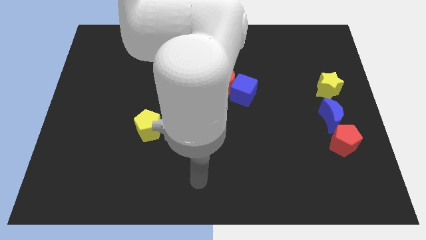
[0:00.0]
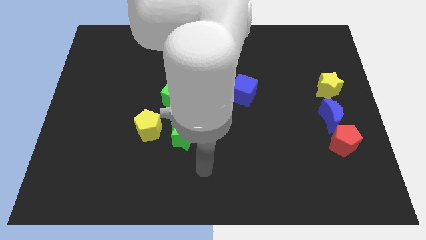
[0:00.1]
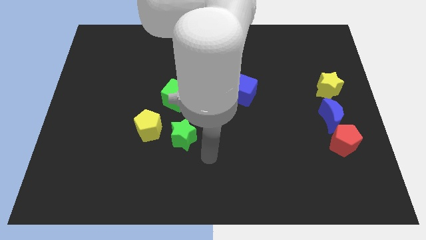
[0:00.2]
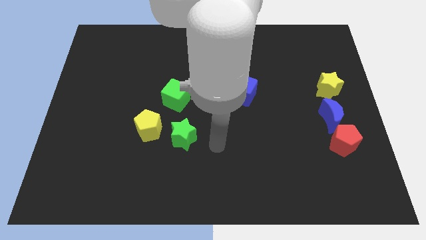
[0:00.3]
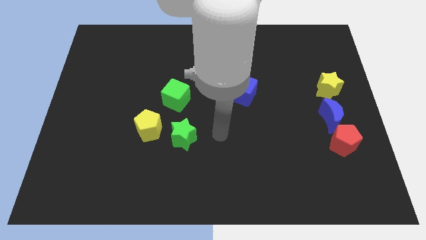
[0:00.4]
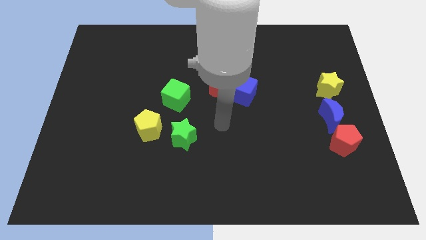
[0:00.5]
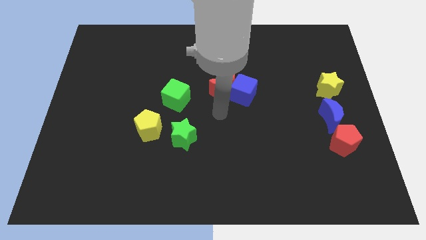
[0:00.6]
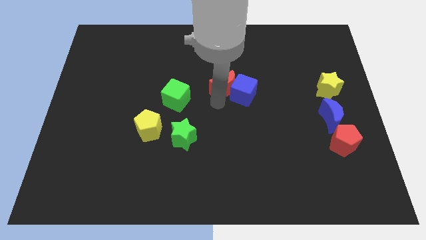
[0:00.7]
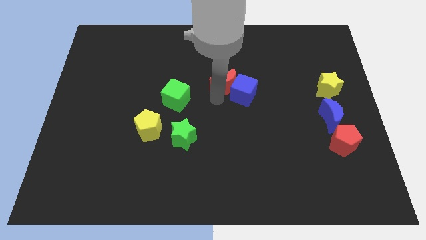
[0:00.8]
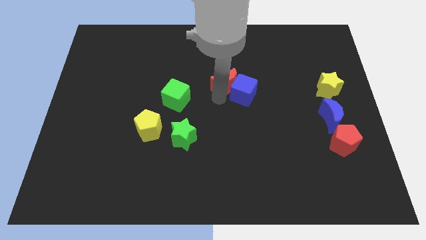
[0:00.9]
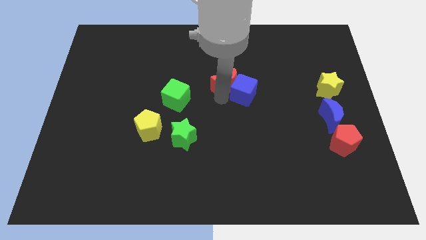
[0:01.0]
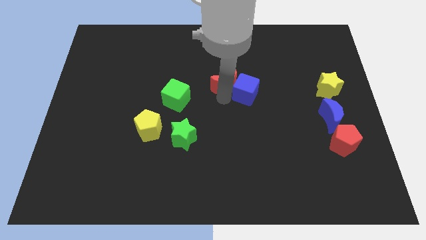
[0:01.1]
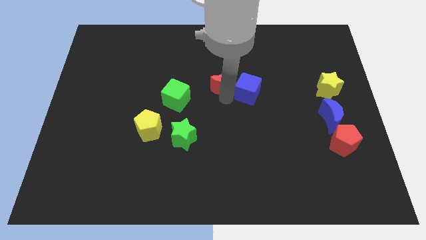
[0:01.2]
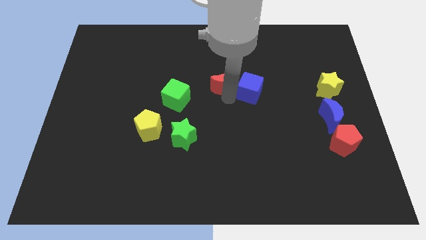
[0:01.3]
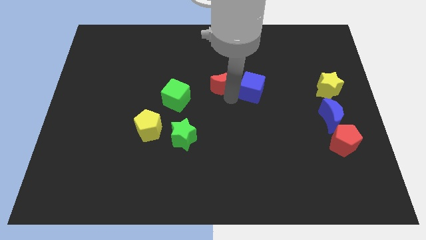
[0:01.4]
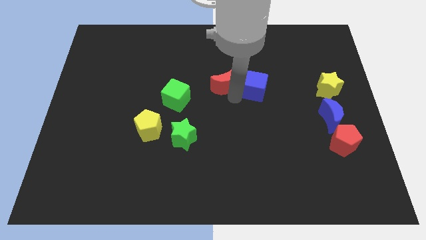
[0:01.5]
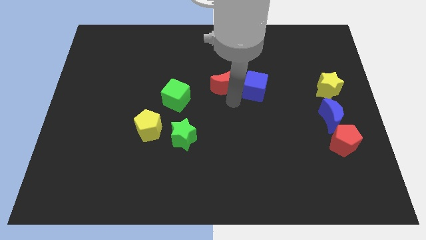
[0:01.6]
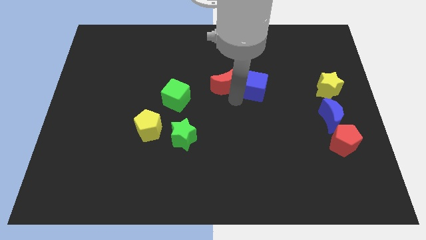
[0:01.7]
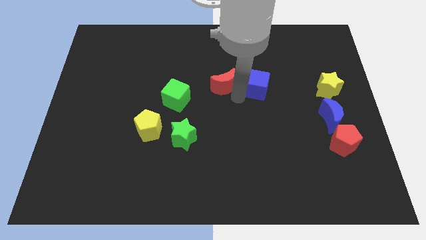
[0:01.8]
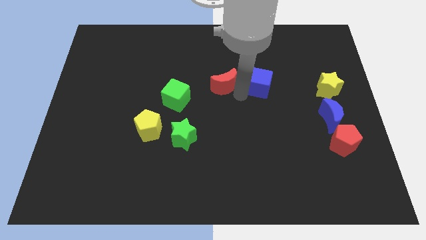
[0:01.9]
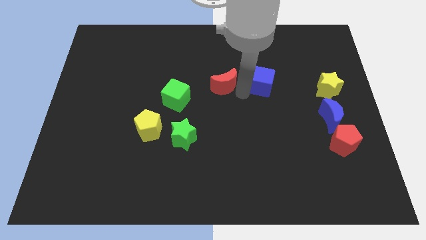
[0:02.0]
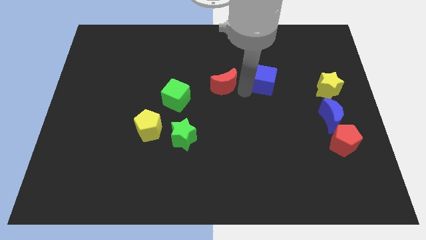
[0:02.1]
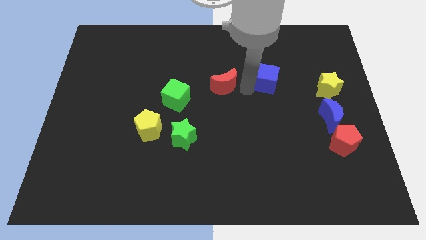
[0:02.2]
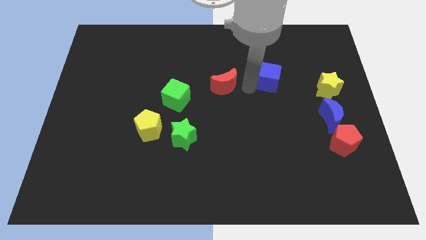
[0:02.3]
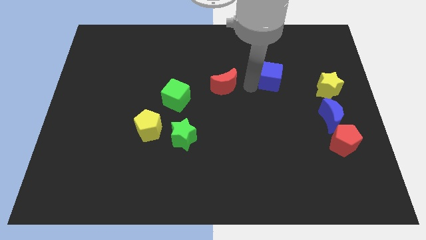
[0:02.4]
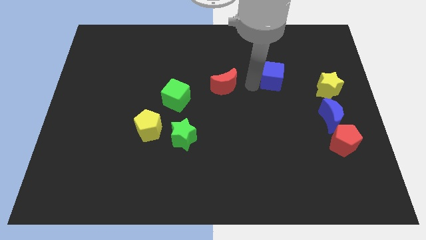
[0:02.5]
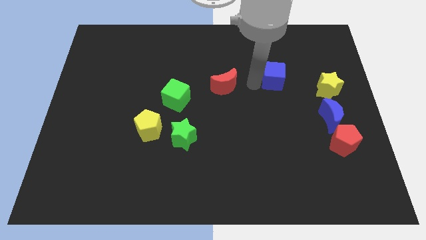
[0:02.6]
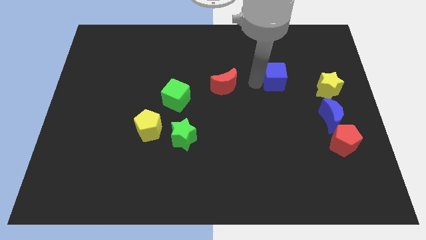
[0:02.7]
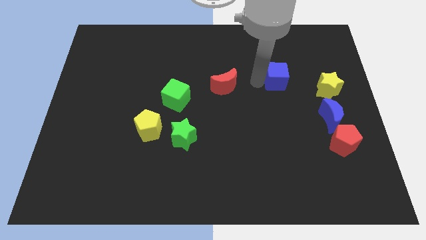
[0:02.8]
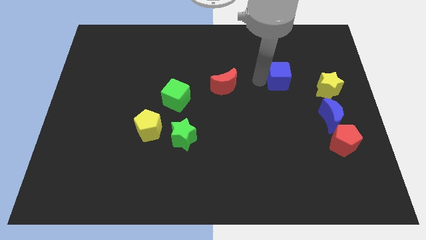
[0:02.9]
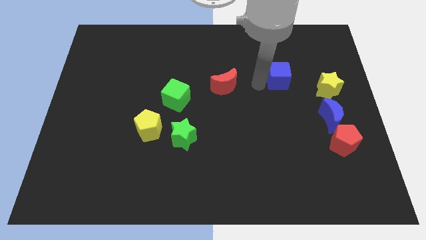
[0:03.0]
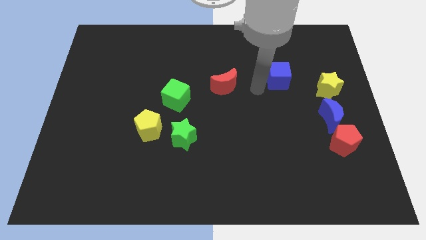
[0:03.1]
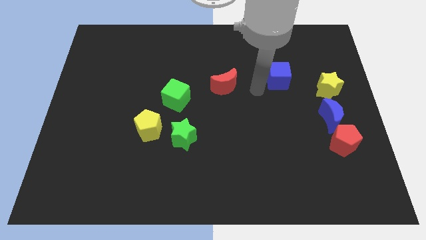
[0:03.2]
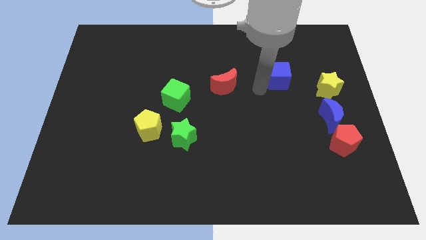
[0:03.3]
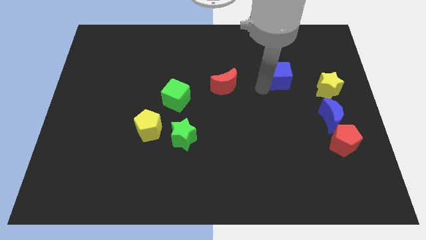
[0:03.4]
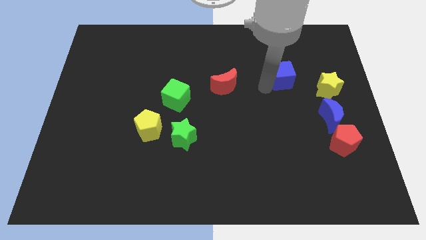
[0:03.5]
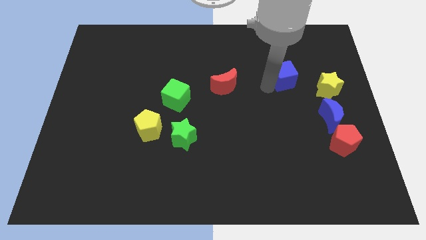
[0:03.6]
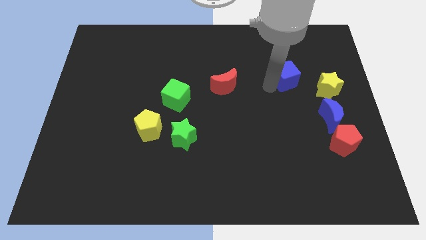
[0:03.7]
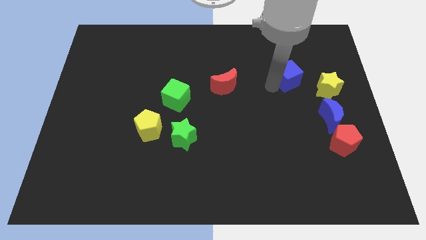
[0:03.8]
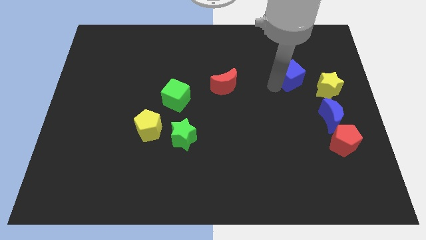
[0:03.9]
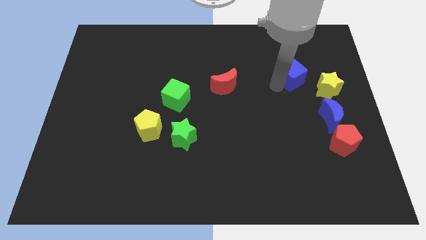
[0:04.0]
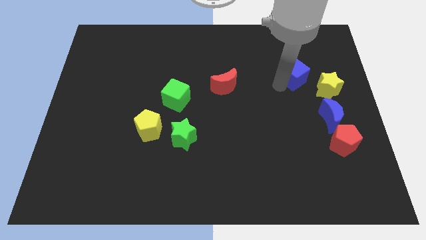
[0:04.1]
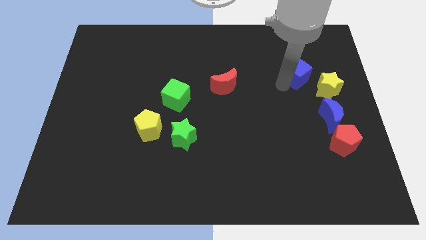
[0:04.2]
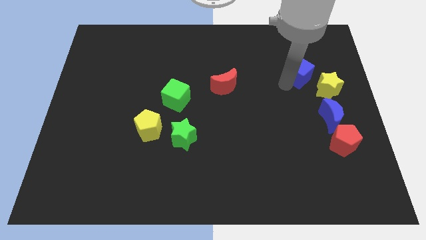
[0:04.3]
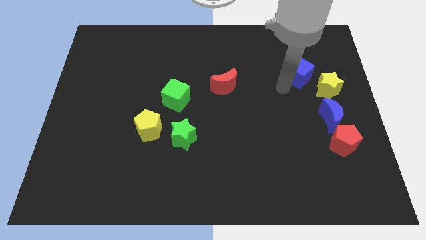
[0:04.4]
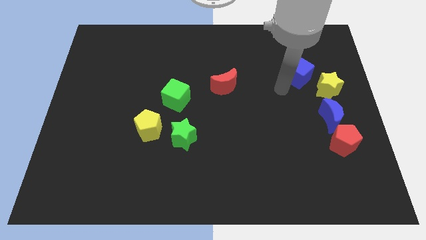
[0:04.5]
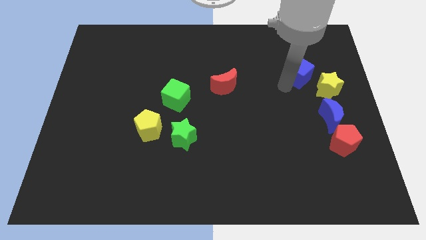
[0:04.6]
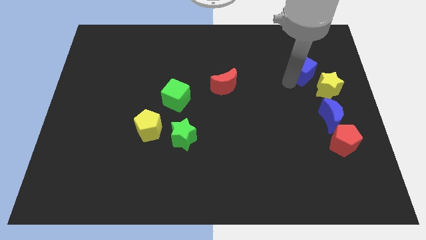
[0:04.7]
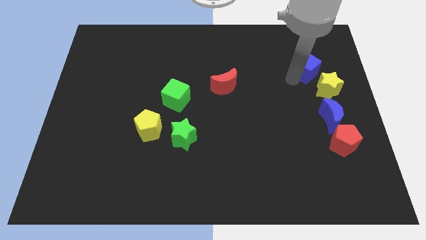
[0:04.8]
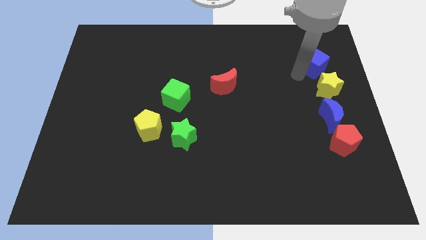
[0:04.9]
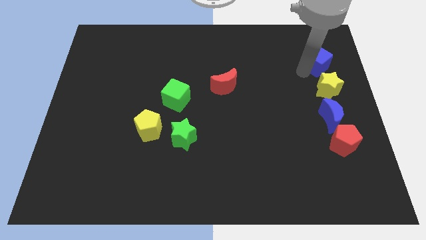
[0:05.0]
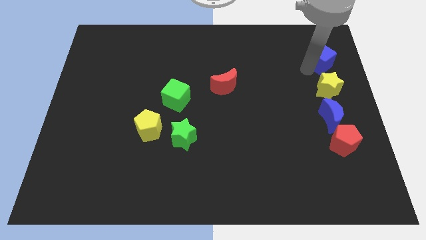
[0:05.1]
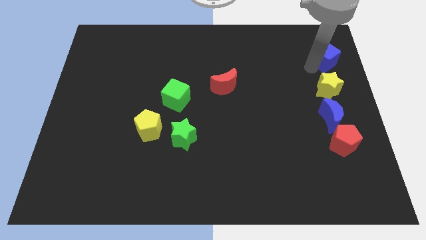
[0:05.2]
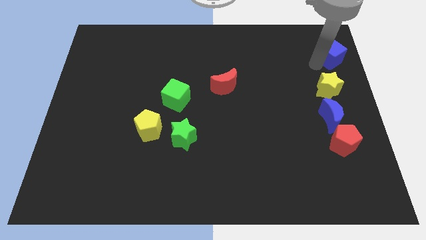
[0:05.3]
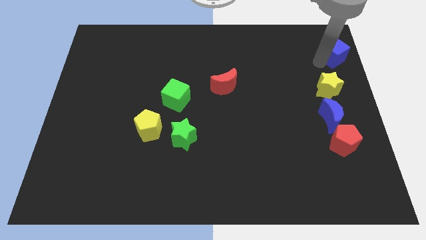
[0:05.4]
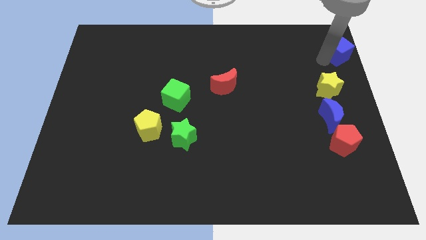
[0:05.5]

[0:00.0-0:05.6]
slide the blue cube to the top right

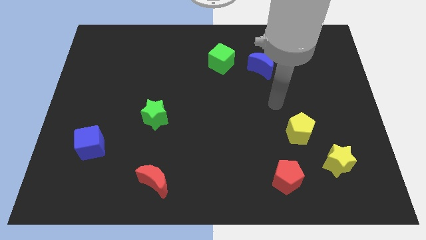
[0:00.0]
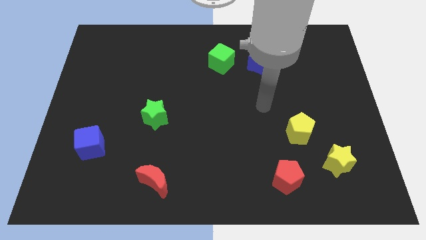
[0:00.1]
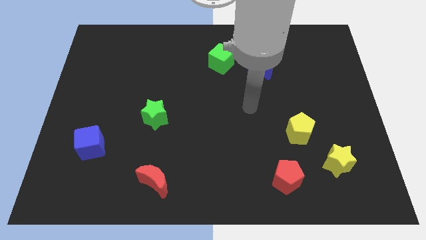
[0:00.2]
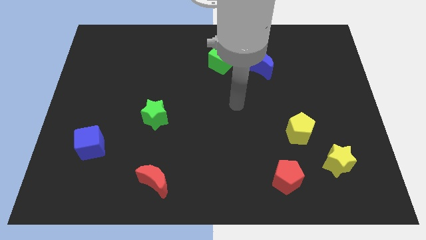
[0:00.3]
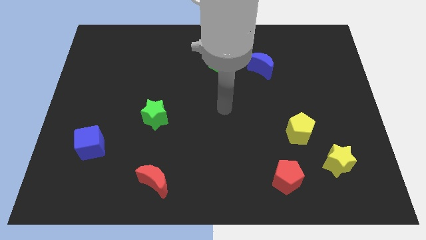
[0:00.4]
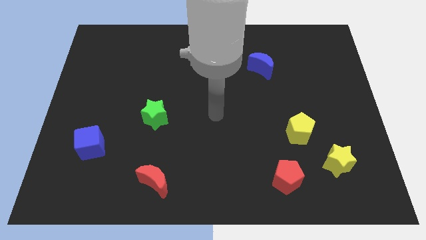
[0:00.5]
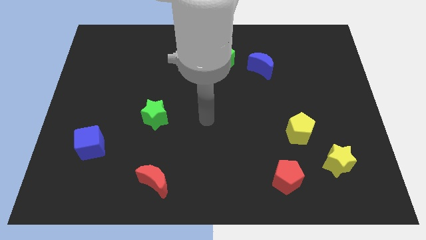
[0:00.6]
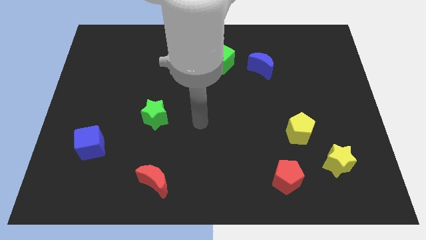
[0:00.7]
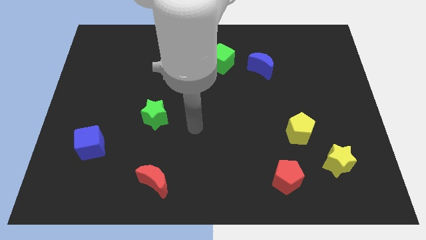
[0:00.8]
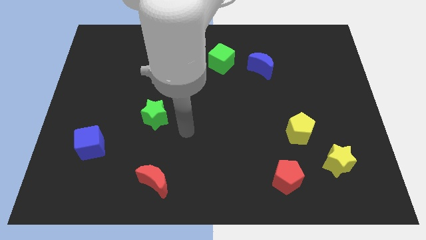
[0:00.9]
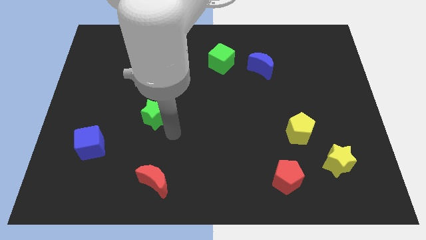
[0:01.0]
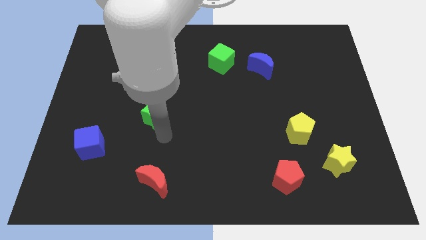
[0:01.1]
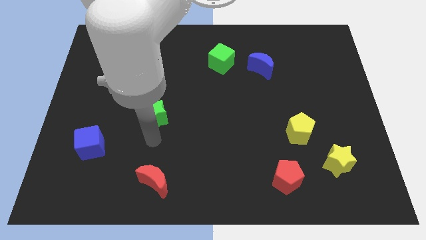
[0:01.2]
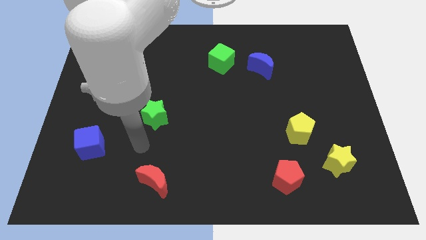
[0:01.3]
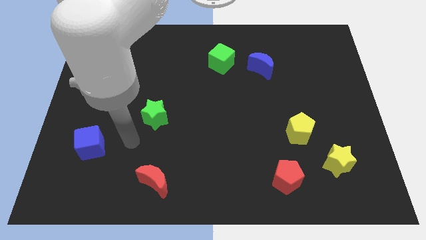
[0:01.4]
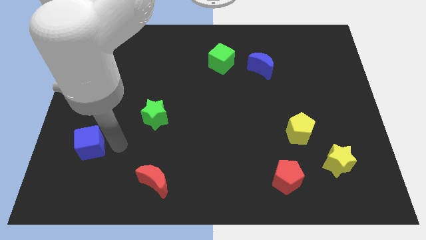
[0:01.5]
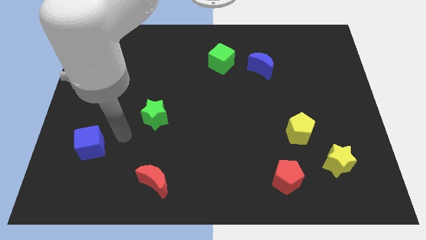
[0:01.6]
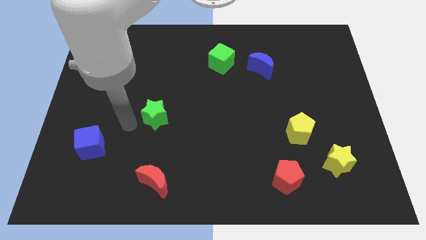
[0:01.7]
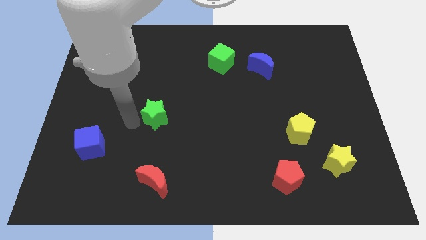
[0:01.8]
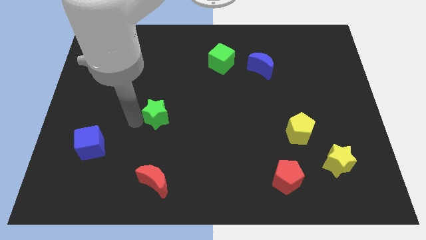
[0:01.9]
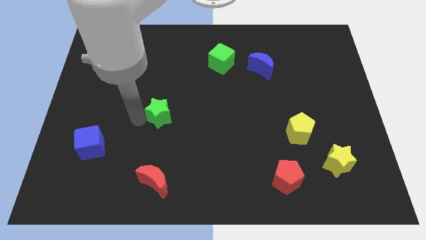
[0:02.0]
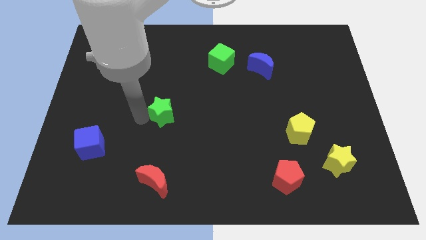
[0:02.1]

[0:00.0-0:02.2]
slide the green star to the center of the board
